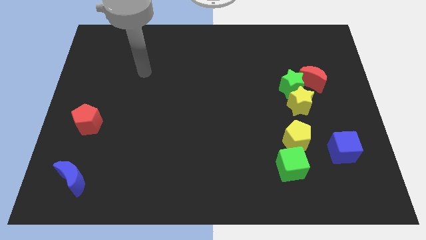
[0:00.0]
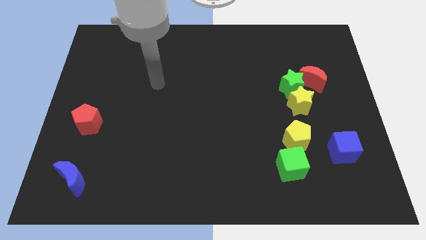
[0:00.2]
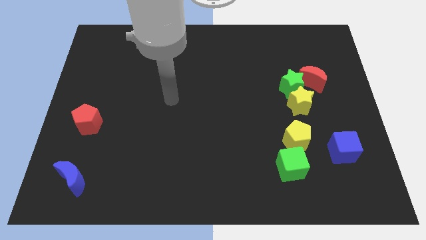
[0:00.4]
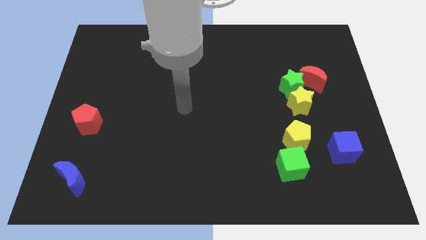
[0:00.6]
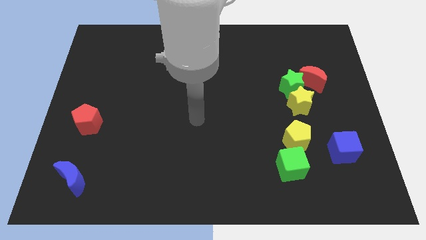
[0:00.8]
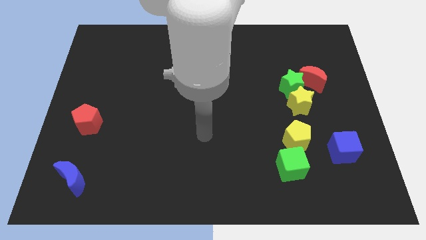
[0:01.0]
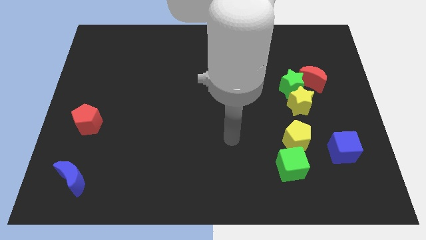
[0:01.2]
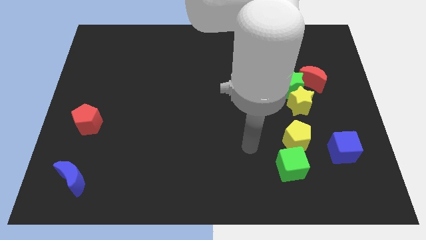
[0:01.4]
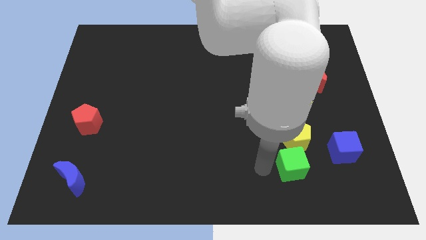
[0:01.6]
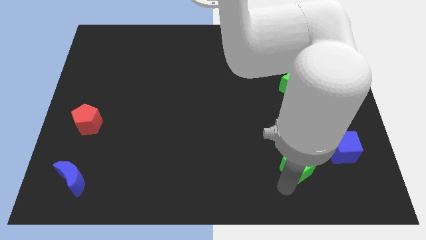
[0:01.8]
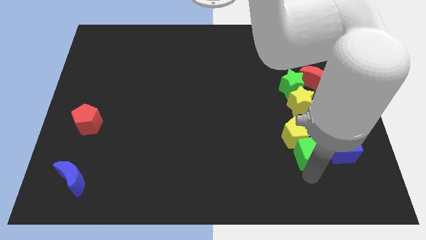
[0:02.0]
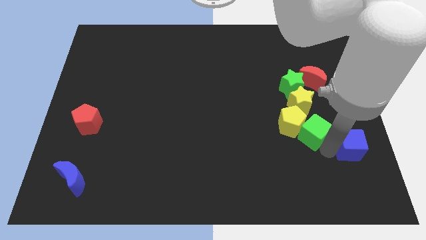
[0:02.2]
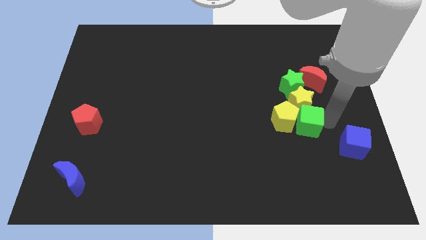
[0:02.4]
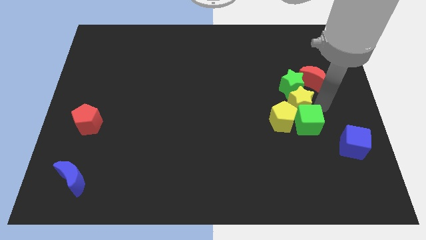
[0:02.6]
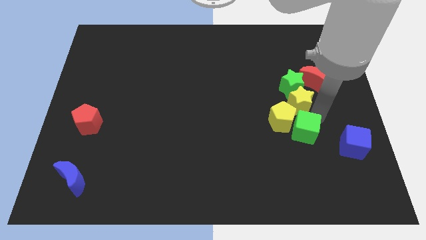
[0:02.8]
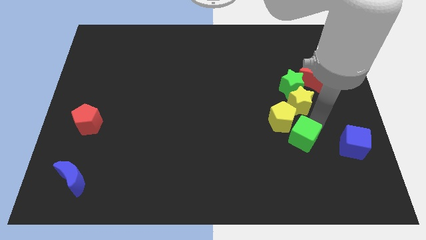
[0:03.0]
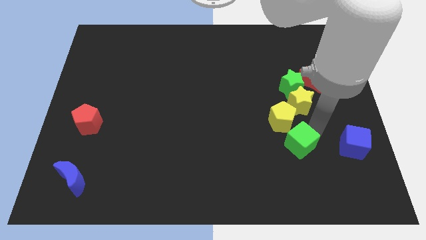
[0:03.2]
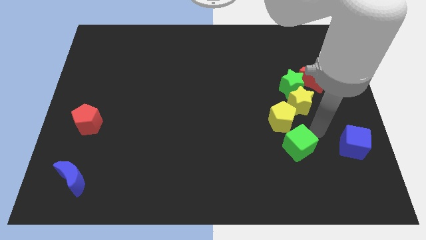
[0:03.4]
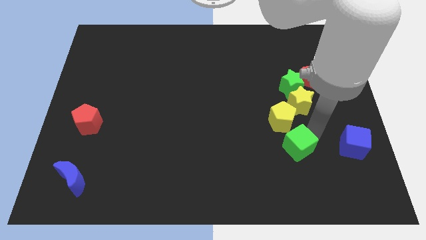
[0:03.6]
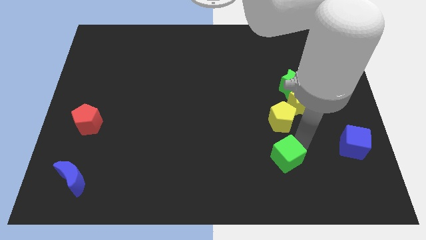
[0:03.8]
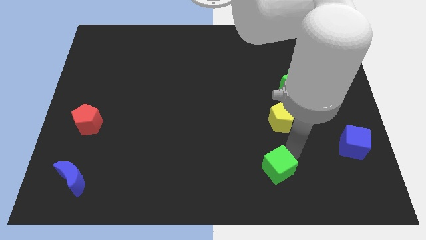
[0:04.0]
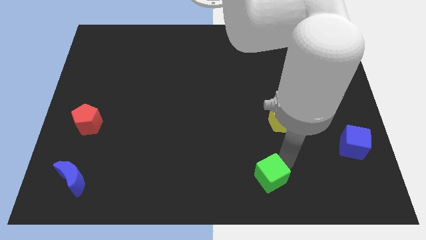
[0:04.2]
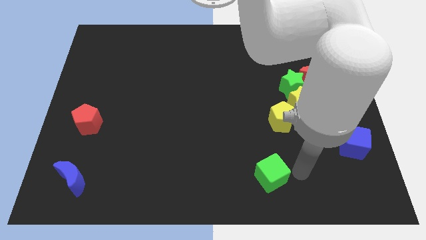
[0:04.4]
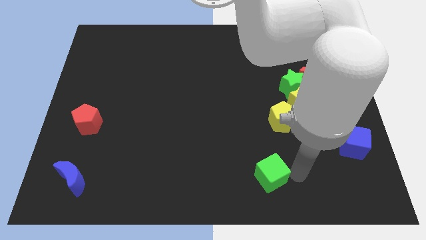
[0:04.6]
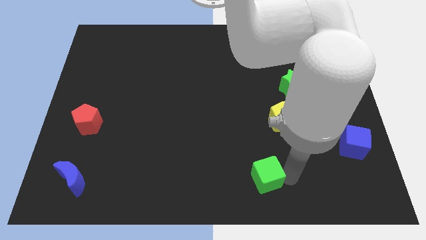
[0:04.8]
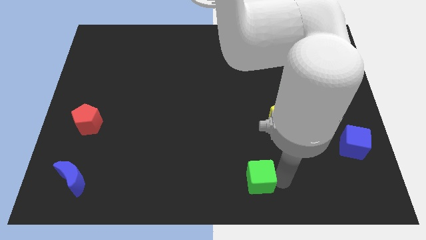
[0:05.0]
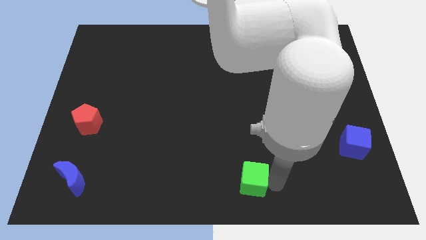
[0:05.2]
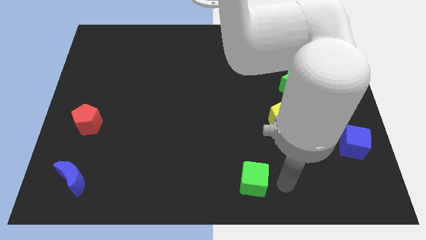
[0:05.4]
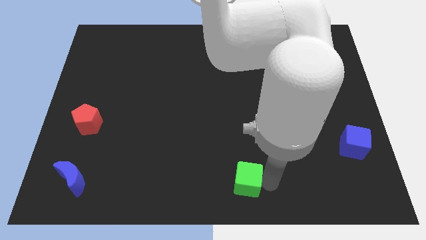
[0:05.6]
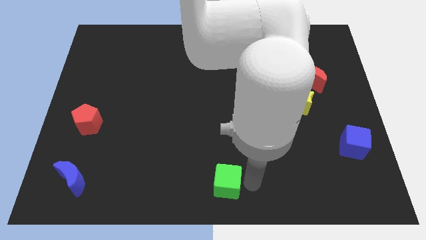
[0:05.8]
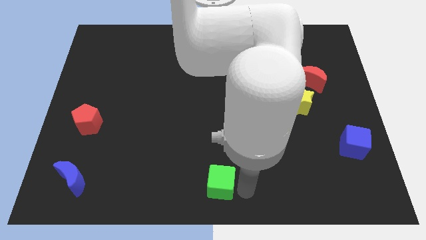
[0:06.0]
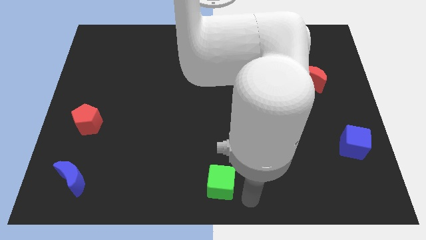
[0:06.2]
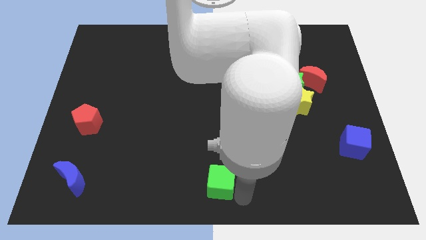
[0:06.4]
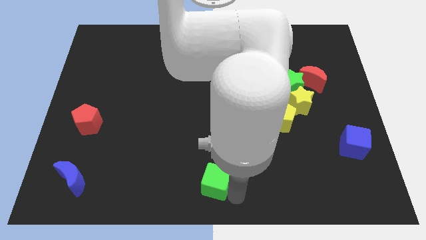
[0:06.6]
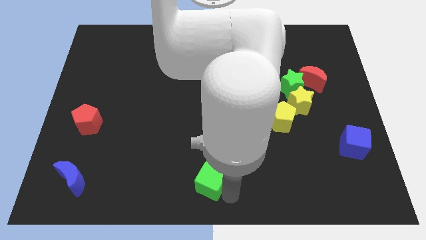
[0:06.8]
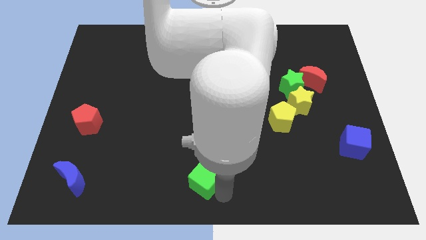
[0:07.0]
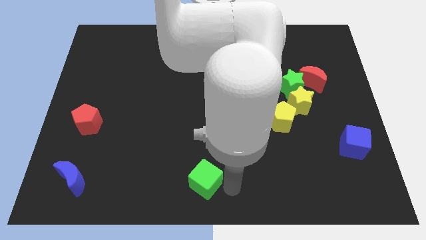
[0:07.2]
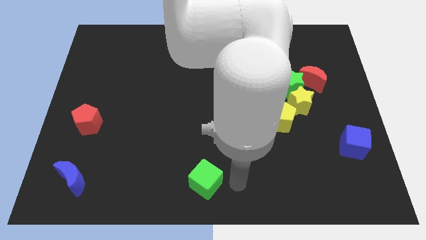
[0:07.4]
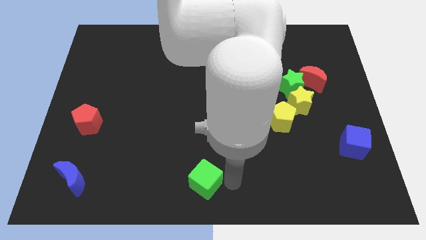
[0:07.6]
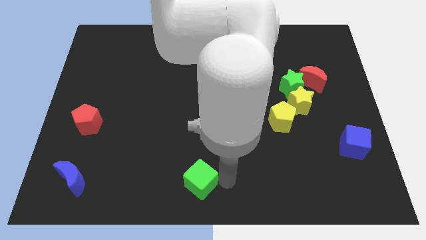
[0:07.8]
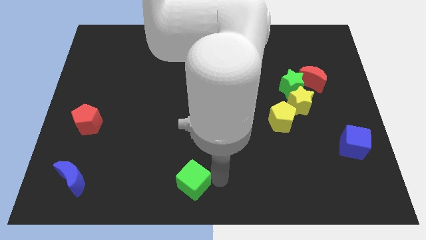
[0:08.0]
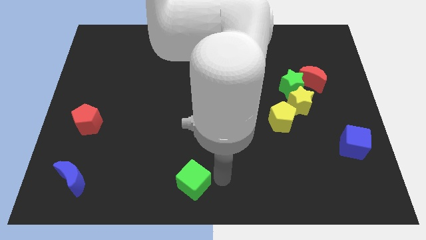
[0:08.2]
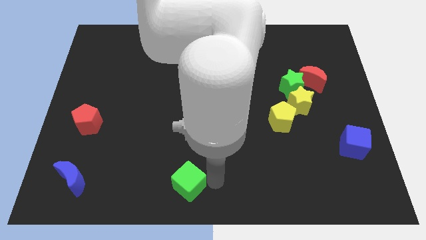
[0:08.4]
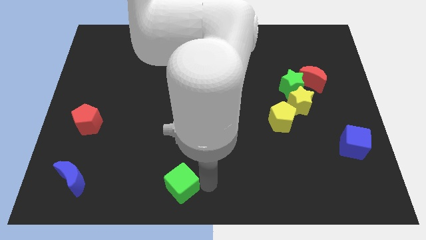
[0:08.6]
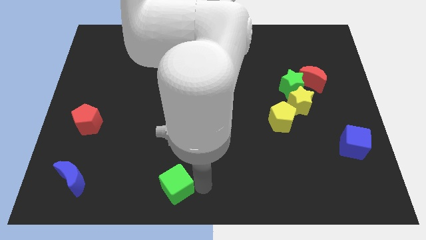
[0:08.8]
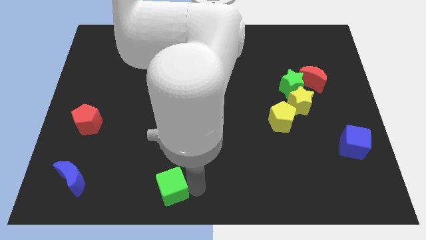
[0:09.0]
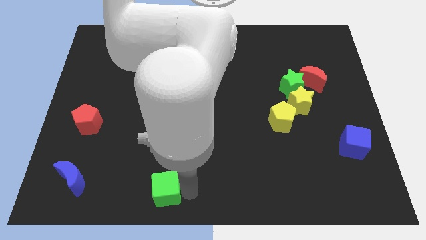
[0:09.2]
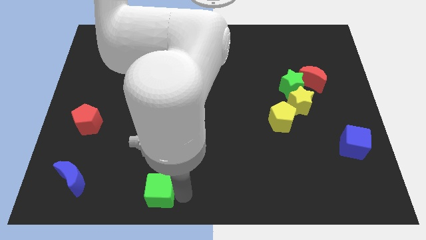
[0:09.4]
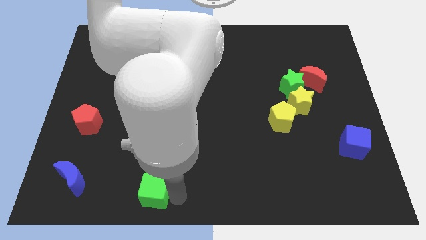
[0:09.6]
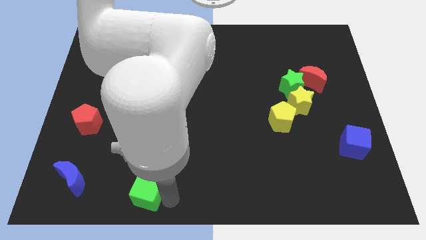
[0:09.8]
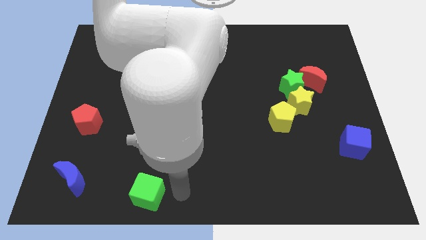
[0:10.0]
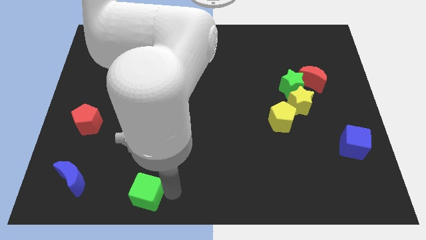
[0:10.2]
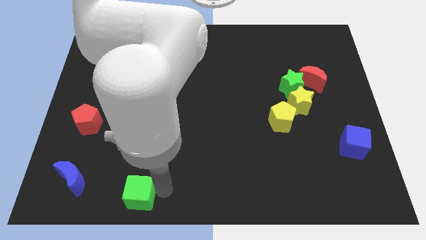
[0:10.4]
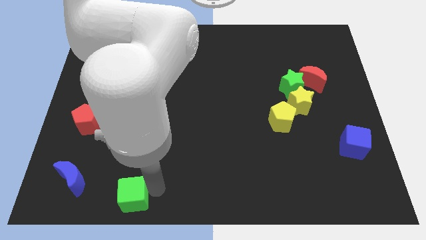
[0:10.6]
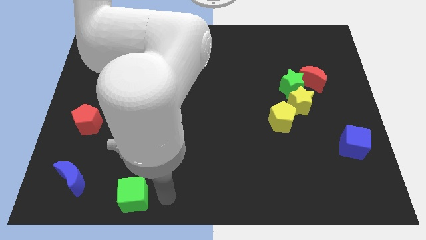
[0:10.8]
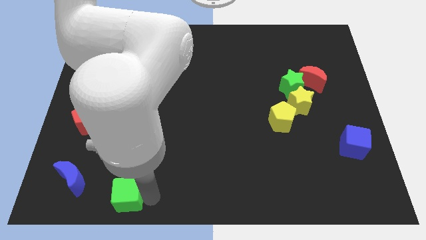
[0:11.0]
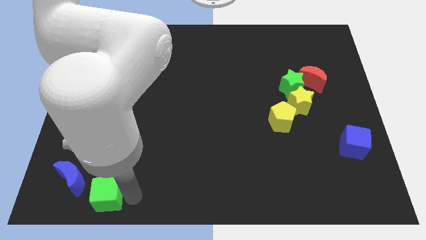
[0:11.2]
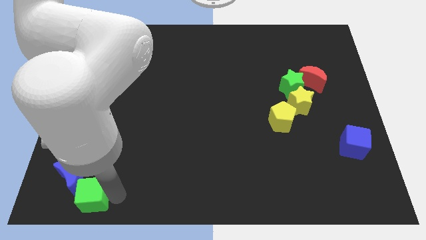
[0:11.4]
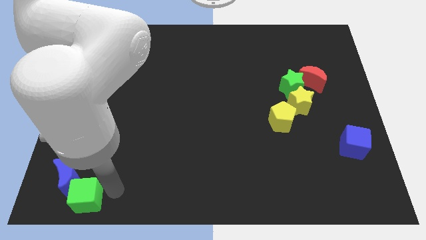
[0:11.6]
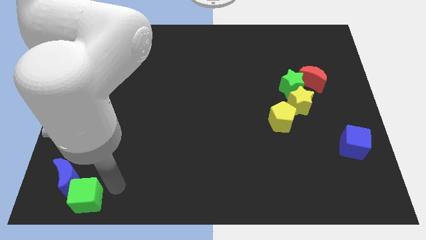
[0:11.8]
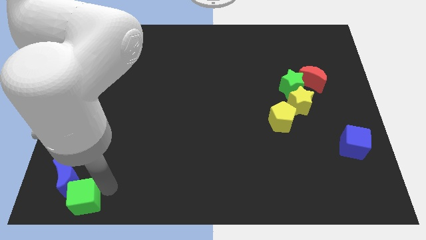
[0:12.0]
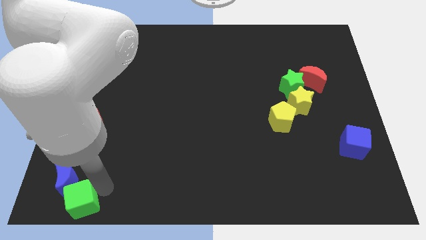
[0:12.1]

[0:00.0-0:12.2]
push the green cube to the bottom left of the board

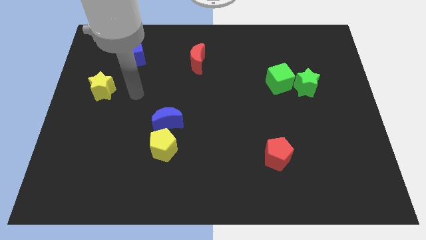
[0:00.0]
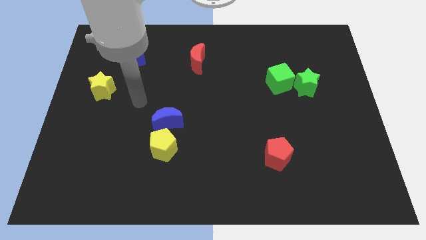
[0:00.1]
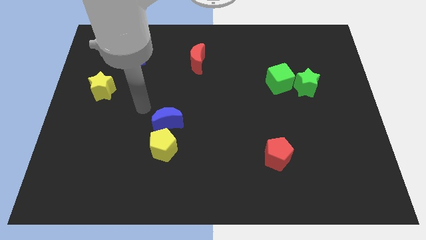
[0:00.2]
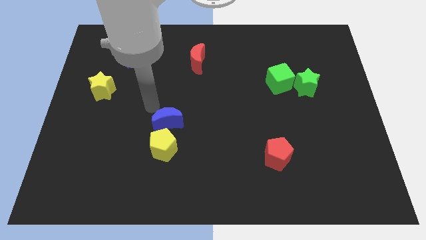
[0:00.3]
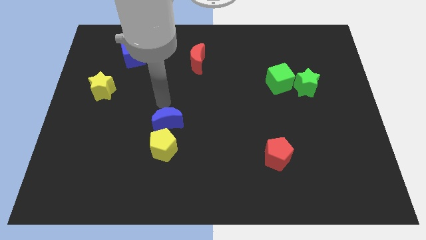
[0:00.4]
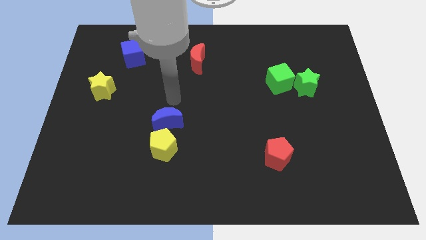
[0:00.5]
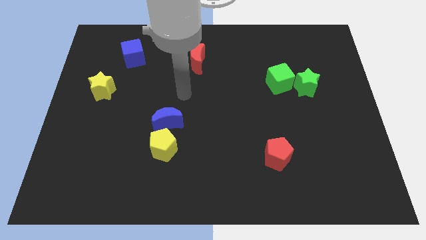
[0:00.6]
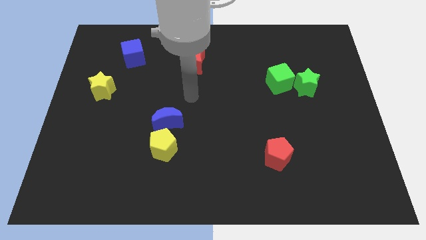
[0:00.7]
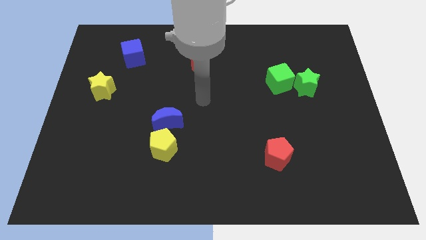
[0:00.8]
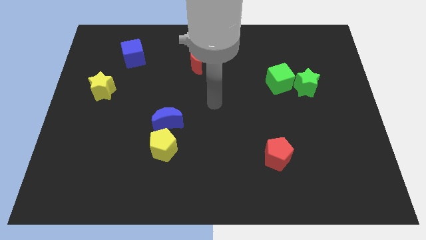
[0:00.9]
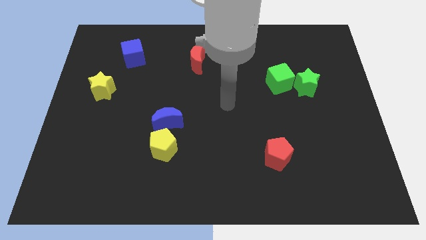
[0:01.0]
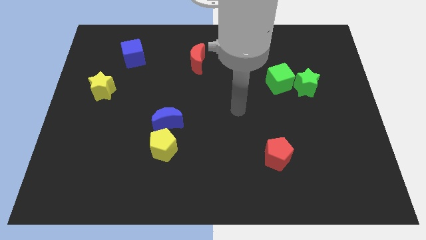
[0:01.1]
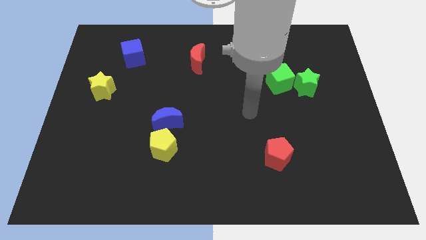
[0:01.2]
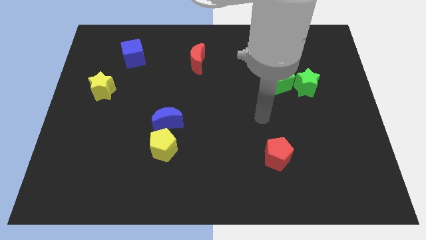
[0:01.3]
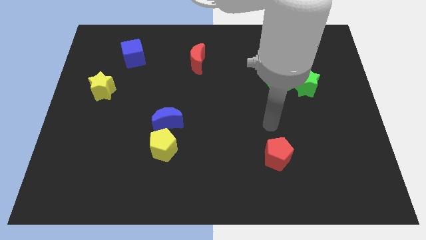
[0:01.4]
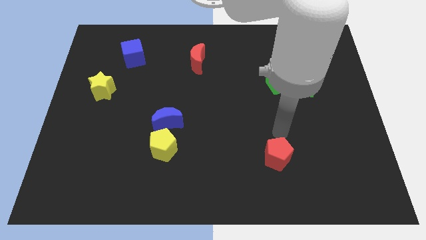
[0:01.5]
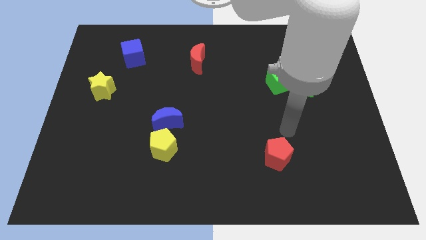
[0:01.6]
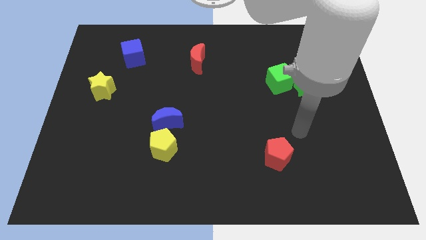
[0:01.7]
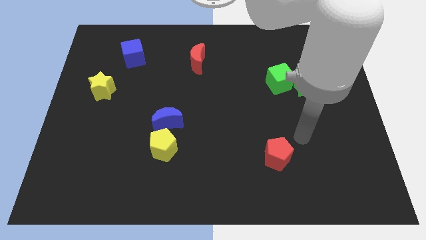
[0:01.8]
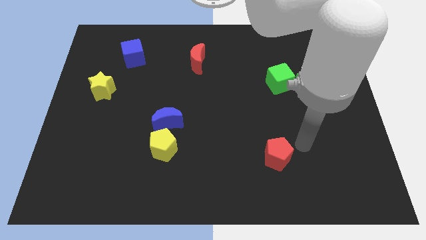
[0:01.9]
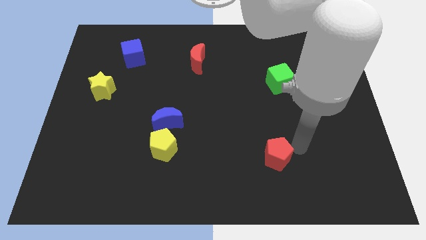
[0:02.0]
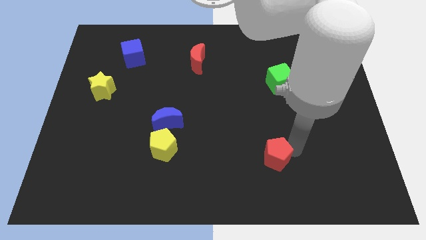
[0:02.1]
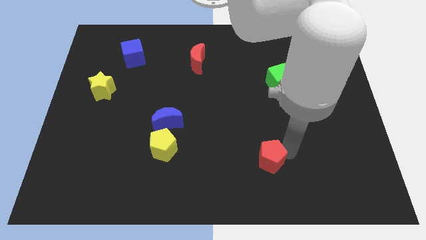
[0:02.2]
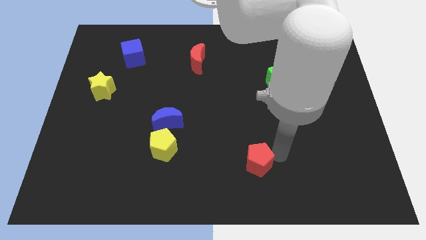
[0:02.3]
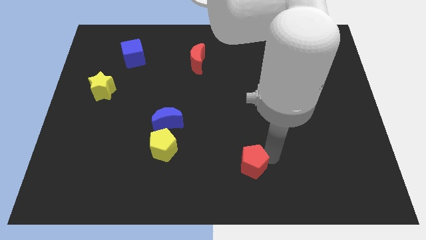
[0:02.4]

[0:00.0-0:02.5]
move the red pentagon to the bottom side
